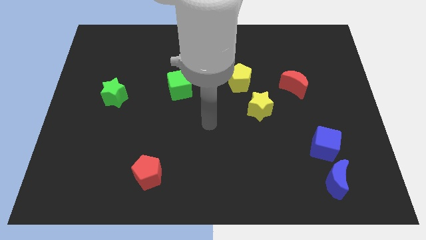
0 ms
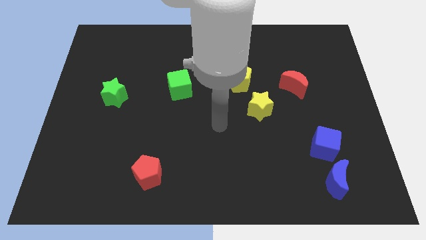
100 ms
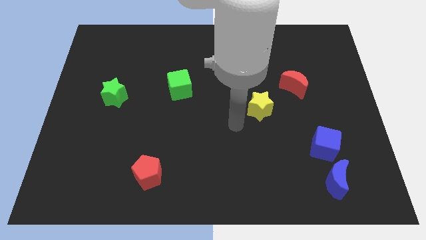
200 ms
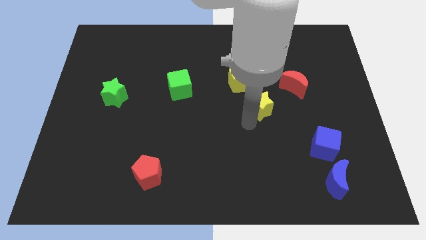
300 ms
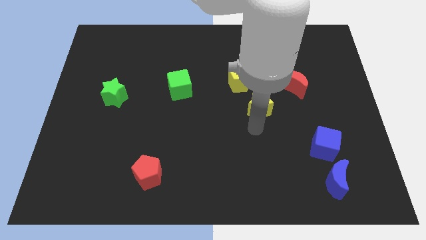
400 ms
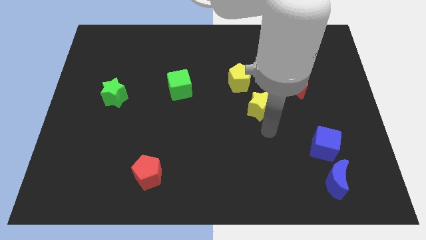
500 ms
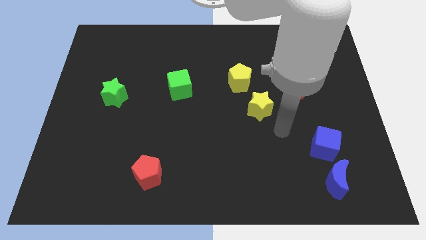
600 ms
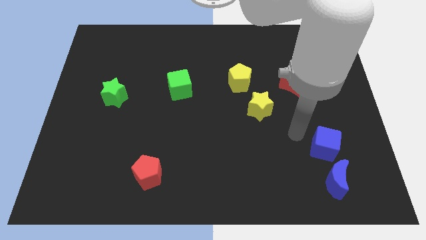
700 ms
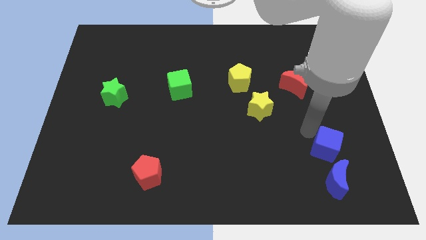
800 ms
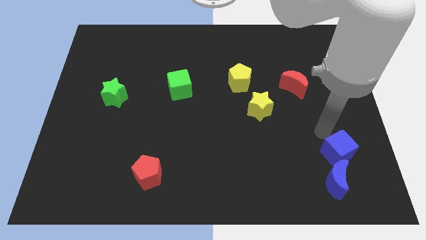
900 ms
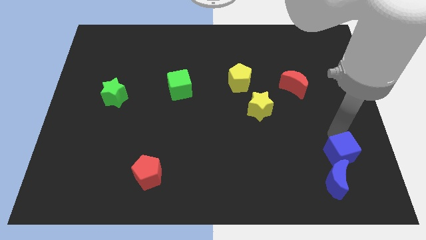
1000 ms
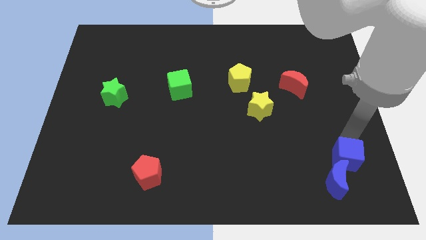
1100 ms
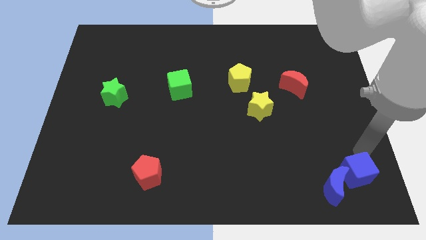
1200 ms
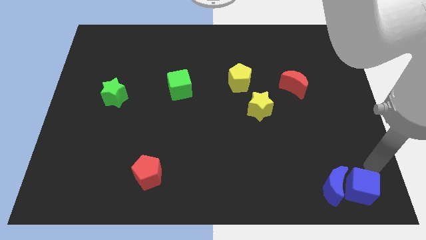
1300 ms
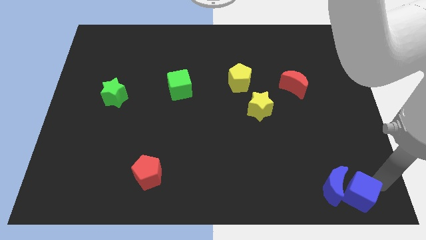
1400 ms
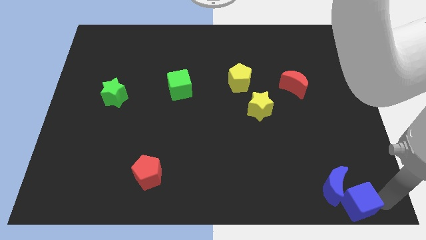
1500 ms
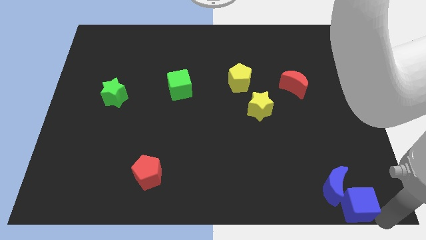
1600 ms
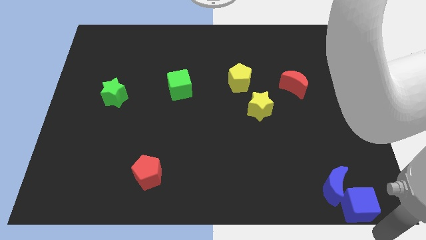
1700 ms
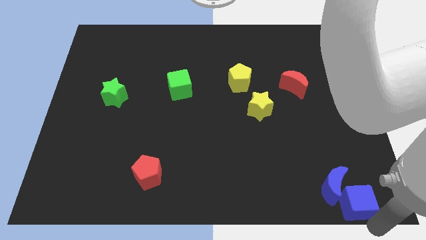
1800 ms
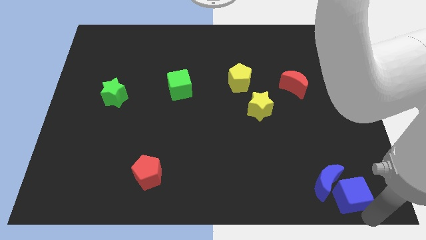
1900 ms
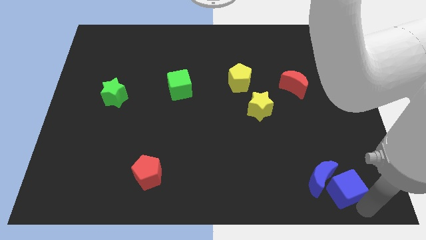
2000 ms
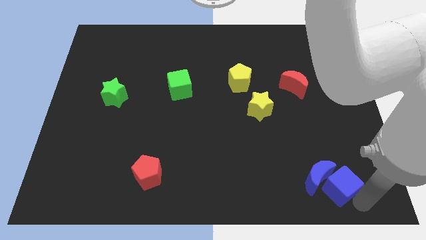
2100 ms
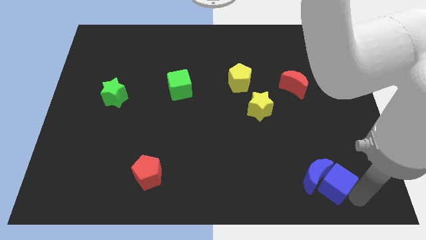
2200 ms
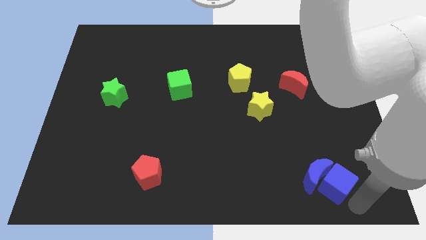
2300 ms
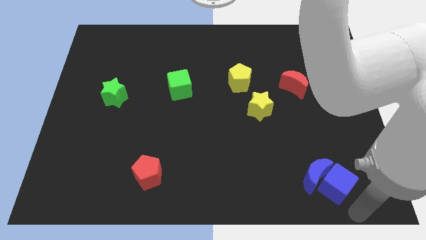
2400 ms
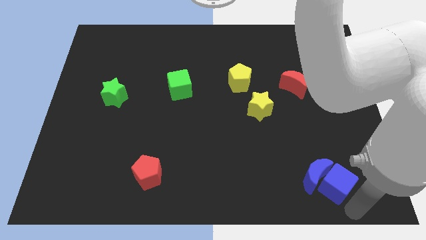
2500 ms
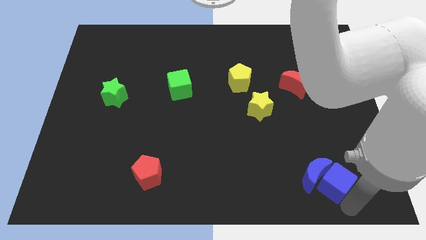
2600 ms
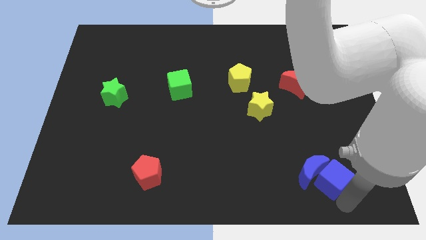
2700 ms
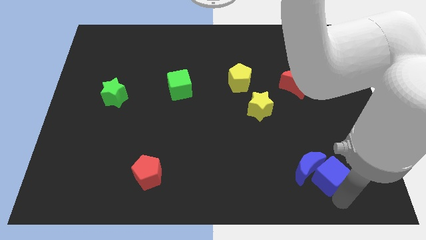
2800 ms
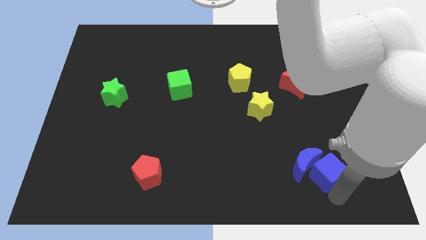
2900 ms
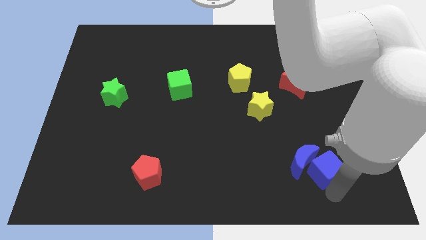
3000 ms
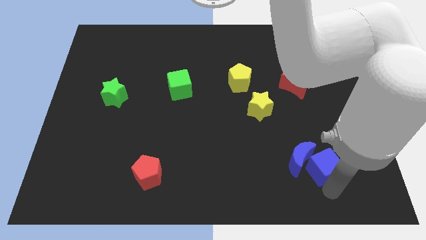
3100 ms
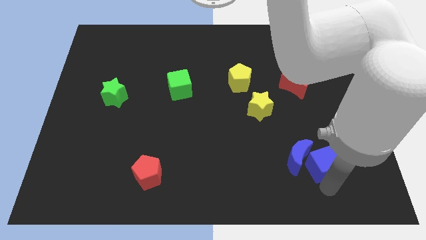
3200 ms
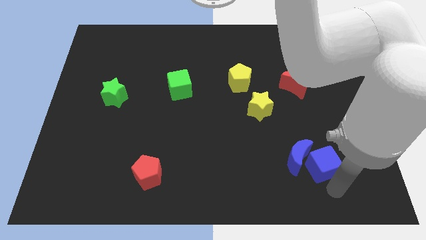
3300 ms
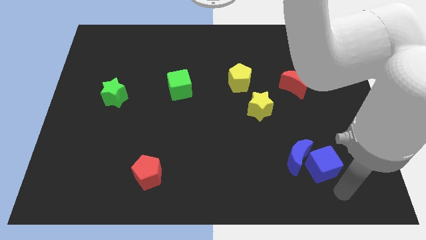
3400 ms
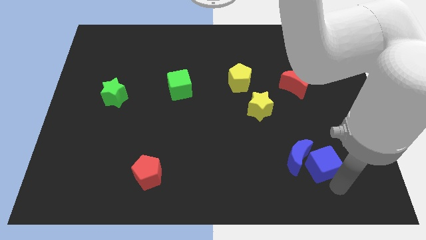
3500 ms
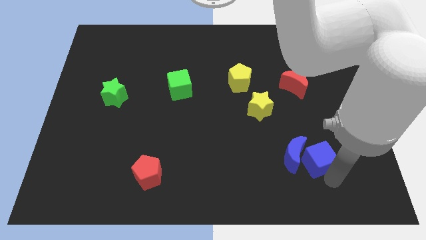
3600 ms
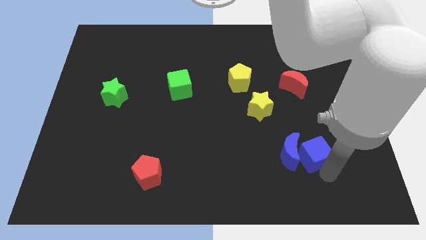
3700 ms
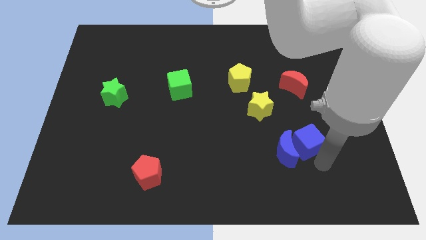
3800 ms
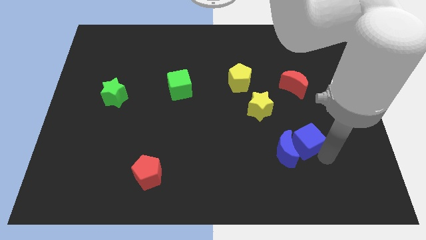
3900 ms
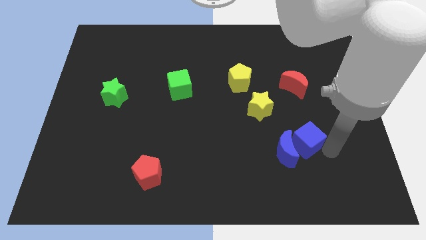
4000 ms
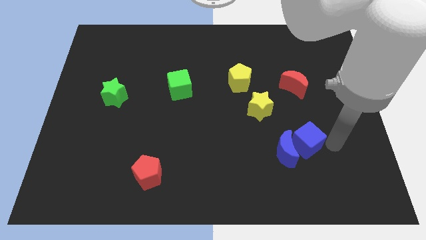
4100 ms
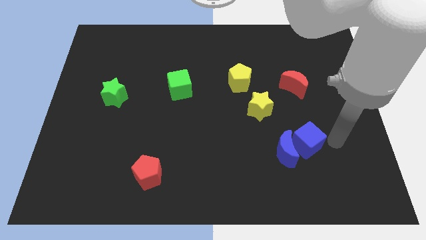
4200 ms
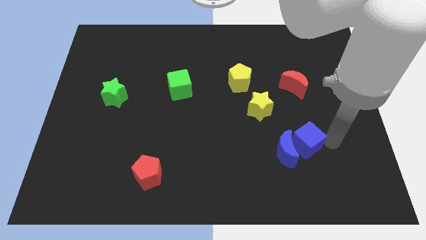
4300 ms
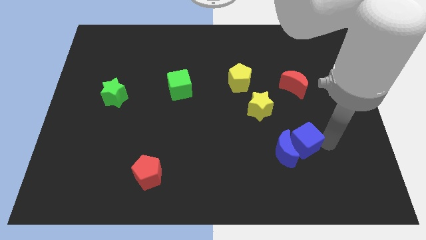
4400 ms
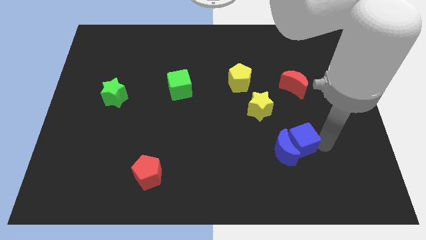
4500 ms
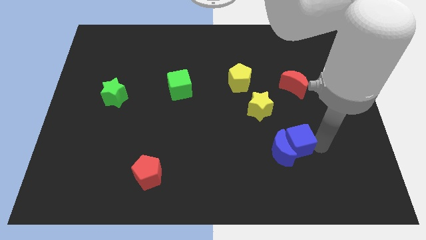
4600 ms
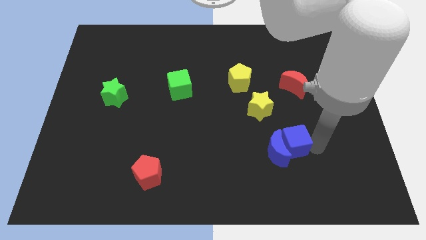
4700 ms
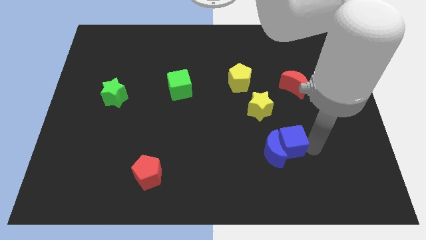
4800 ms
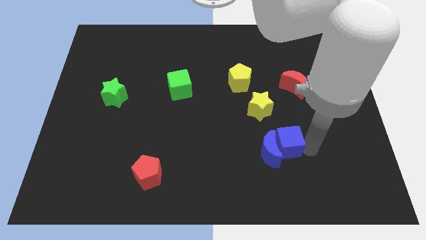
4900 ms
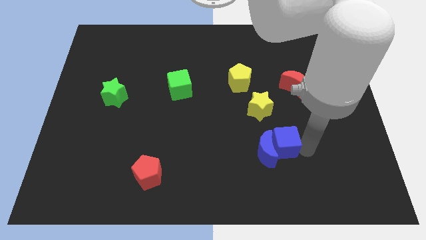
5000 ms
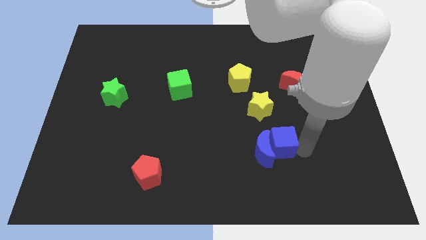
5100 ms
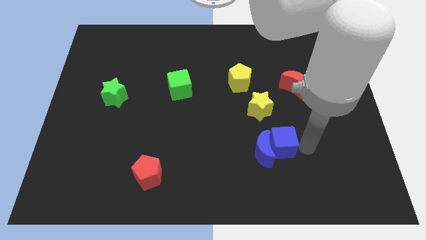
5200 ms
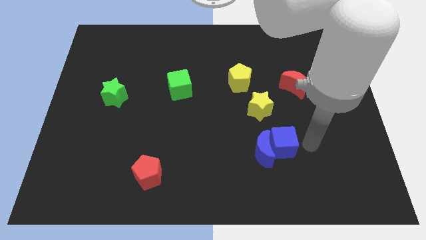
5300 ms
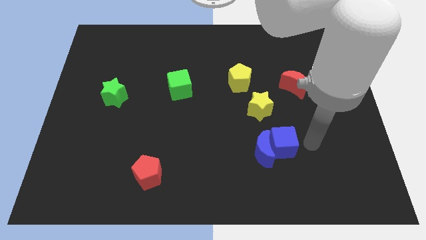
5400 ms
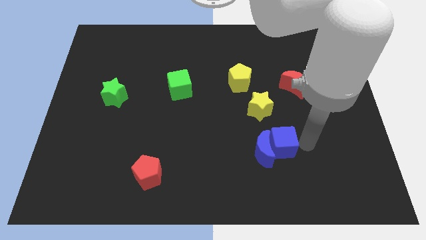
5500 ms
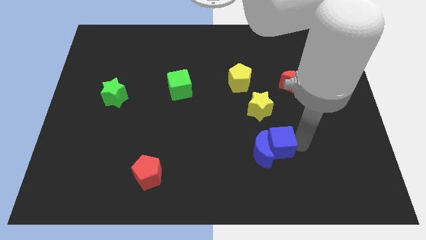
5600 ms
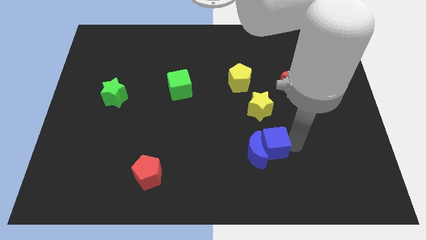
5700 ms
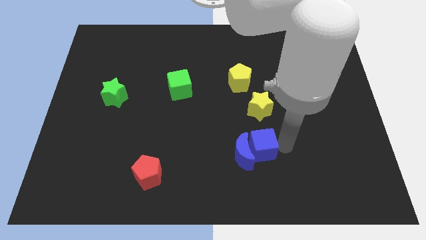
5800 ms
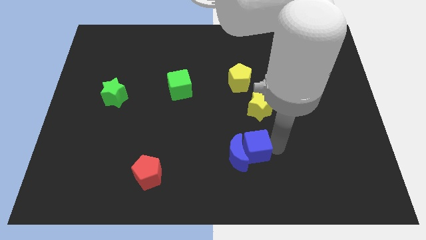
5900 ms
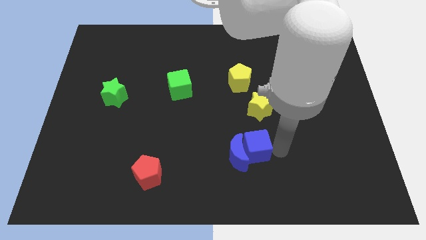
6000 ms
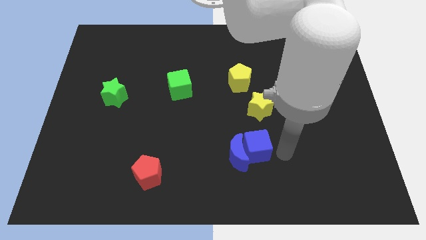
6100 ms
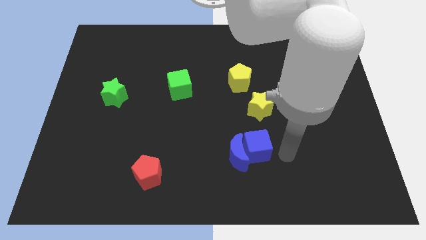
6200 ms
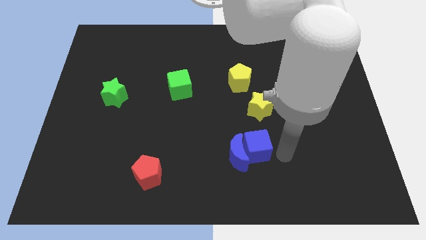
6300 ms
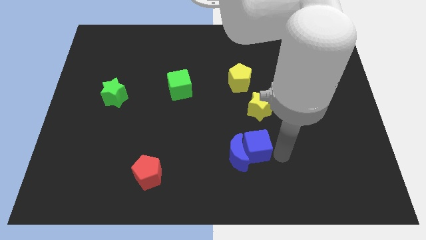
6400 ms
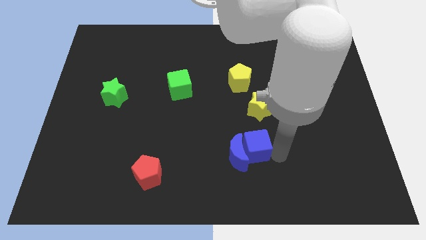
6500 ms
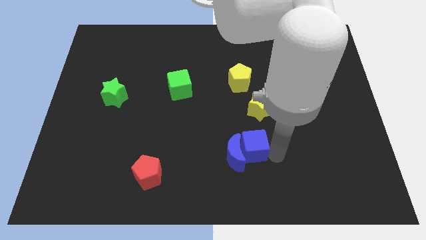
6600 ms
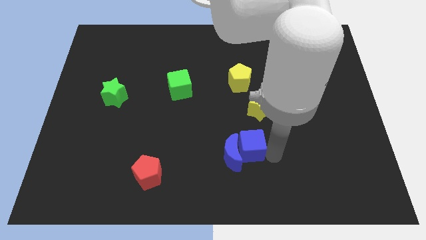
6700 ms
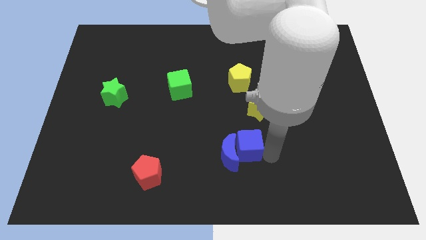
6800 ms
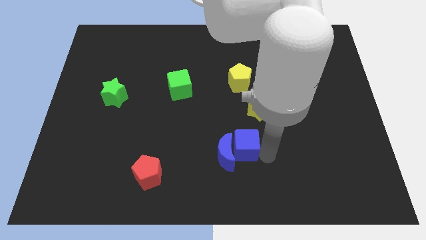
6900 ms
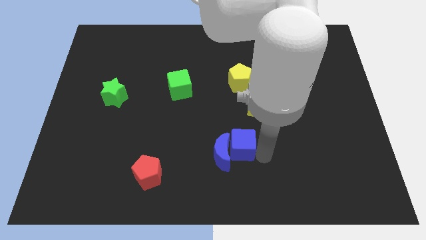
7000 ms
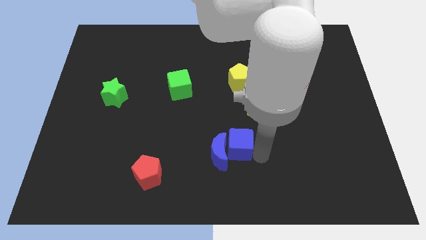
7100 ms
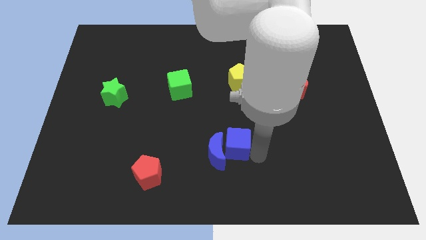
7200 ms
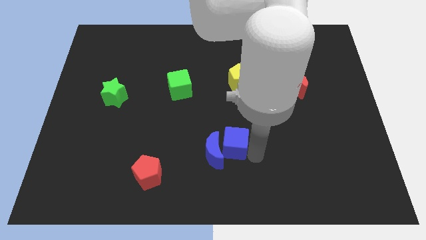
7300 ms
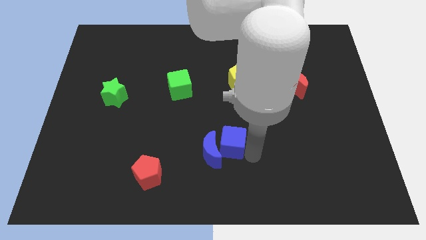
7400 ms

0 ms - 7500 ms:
move the blue cube left

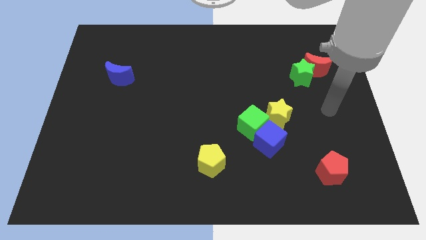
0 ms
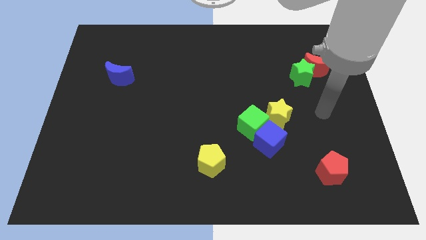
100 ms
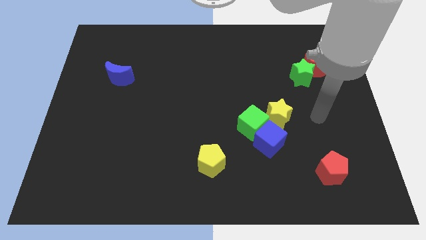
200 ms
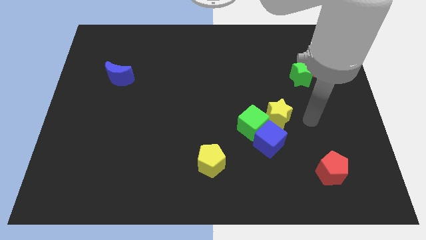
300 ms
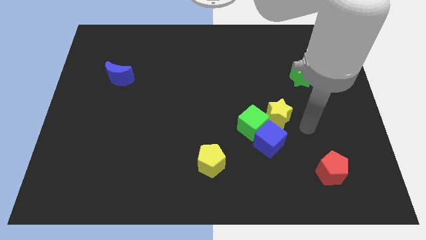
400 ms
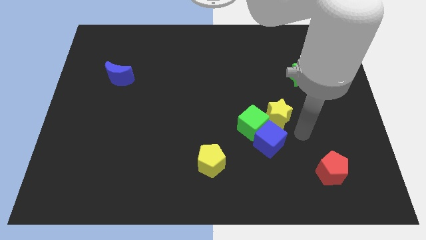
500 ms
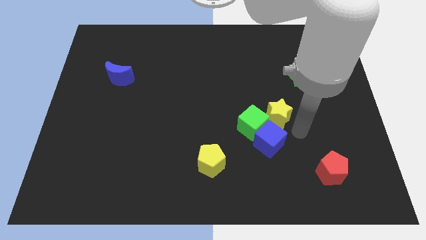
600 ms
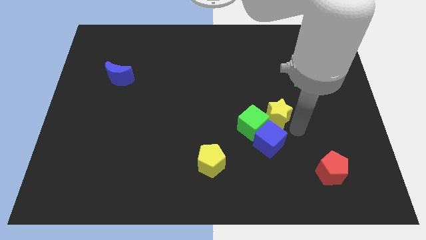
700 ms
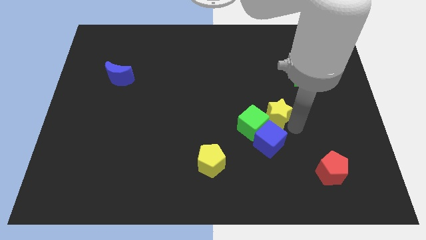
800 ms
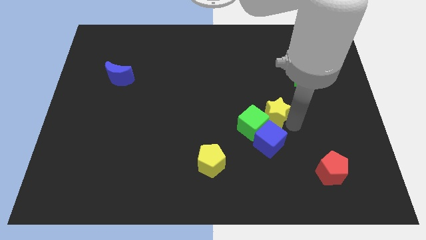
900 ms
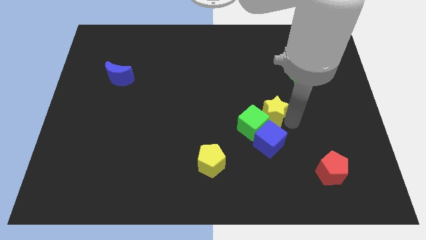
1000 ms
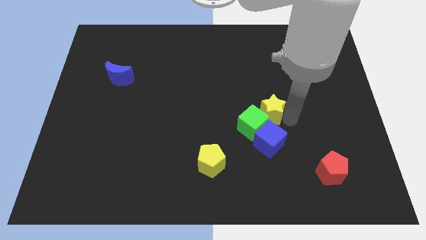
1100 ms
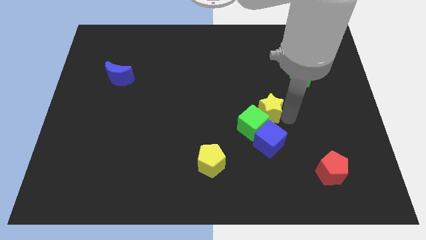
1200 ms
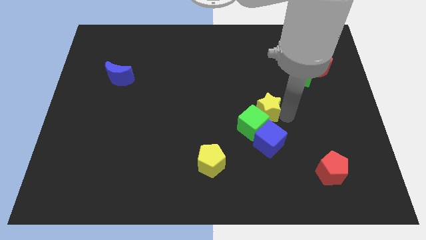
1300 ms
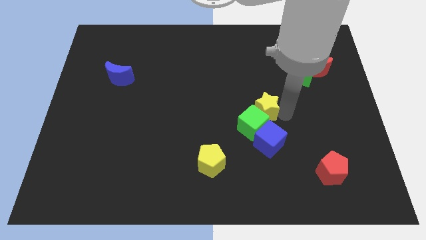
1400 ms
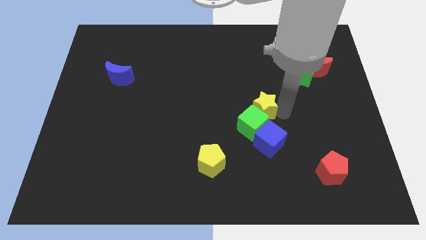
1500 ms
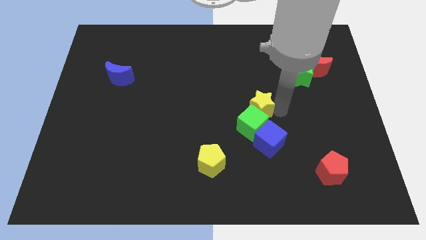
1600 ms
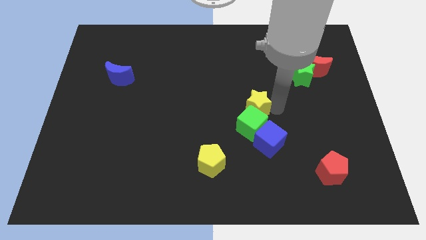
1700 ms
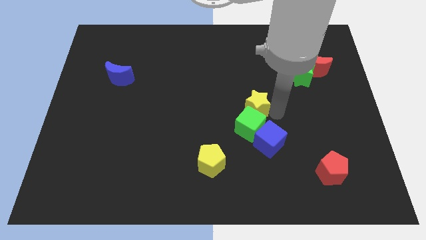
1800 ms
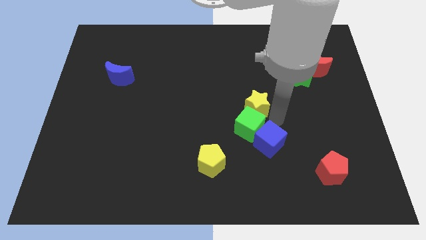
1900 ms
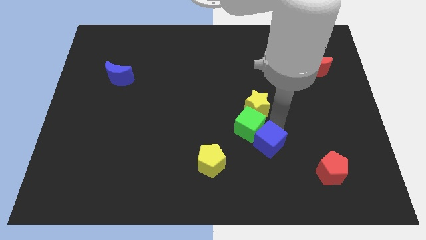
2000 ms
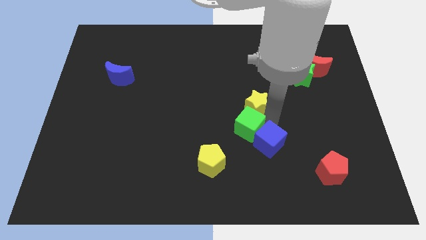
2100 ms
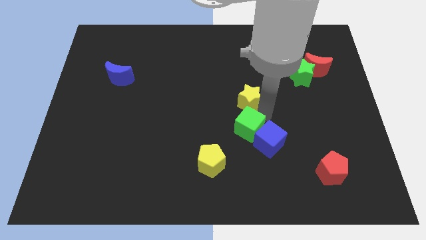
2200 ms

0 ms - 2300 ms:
move the yellow star up and to the left diagonally a bit
